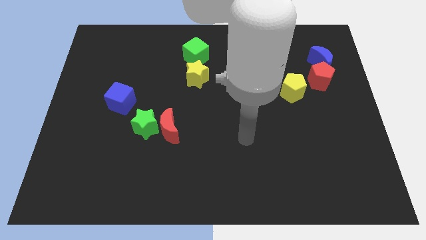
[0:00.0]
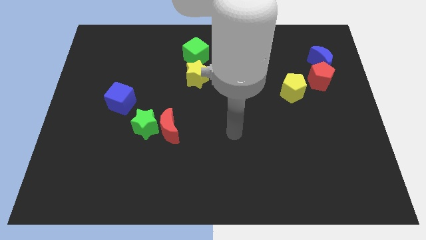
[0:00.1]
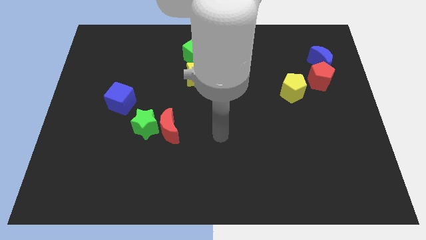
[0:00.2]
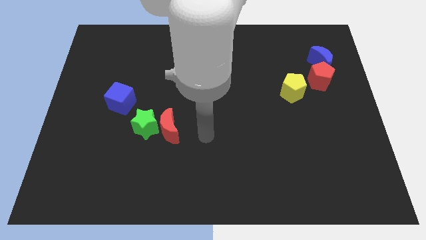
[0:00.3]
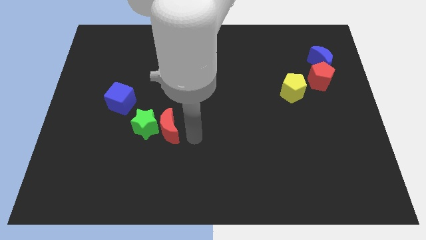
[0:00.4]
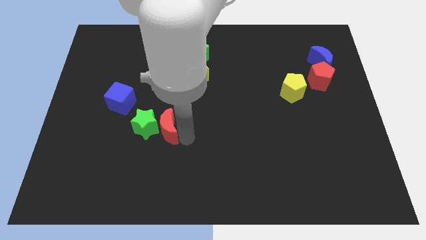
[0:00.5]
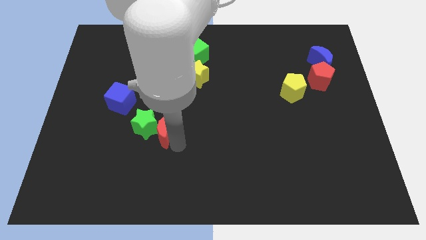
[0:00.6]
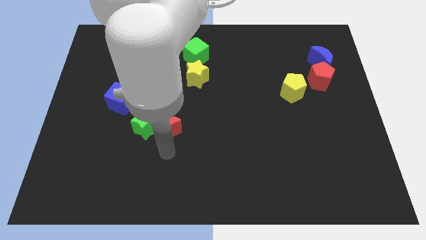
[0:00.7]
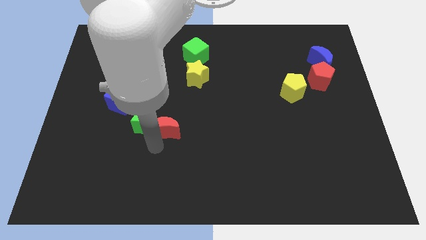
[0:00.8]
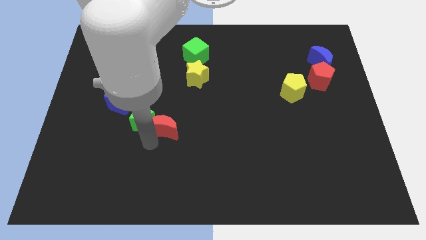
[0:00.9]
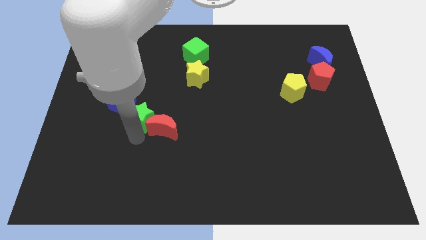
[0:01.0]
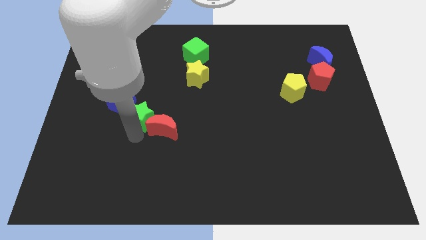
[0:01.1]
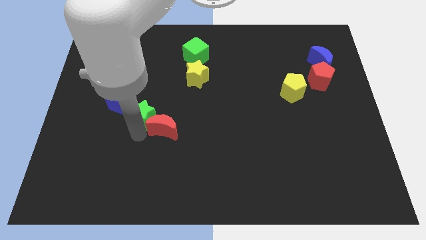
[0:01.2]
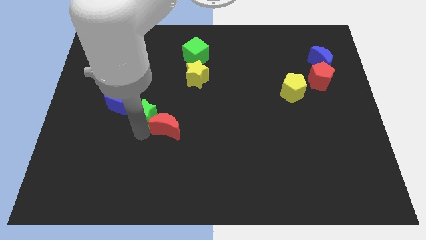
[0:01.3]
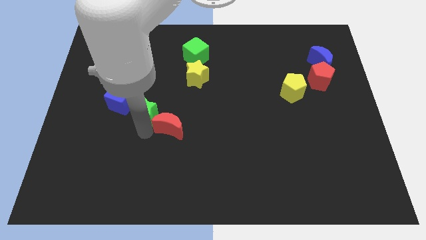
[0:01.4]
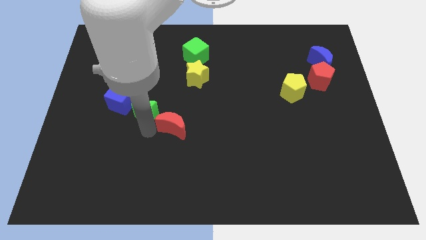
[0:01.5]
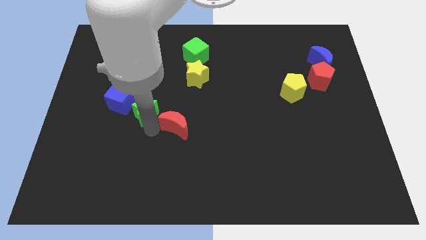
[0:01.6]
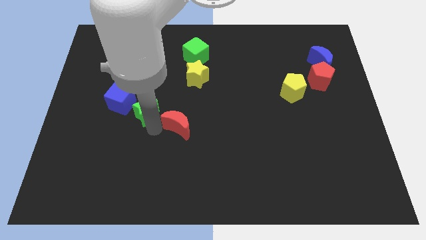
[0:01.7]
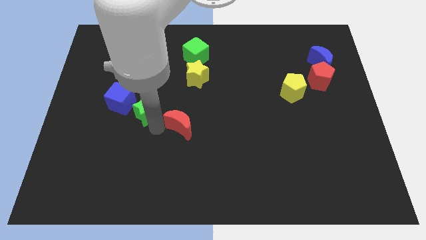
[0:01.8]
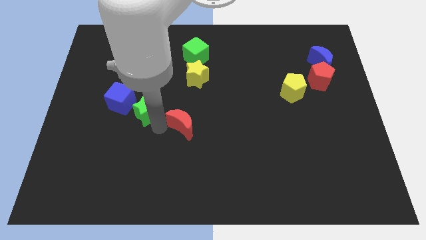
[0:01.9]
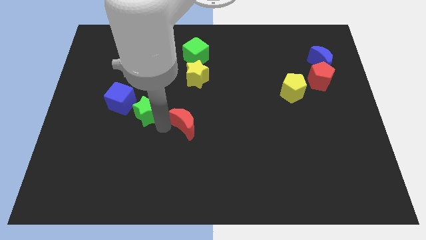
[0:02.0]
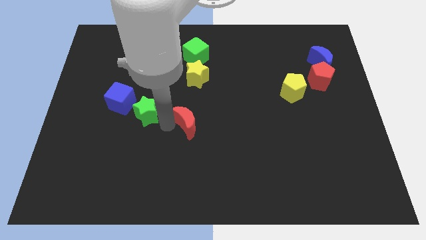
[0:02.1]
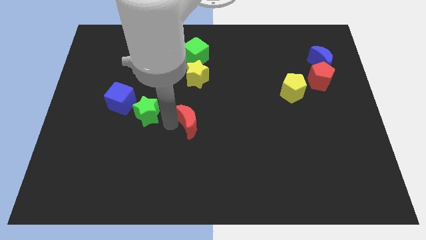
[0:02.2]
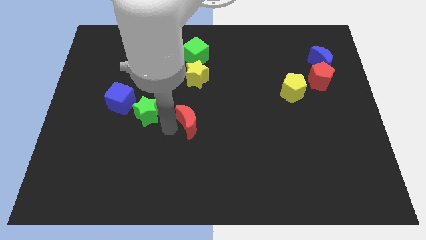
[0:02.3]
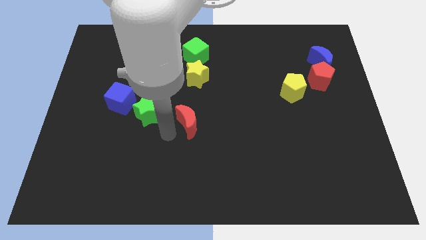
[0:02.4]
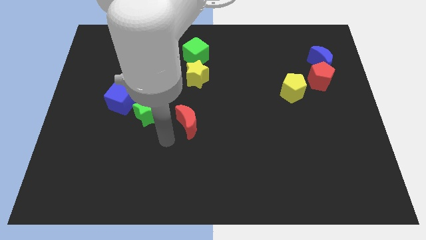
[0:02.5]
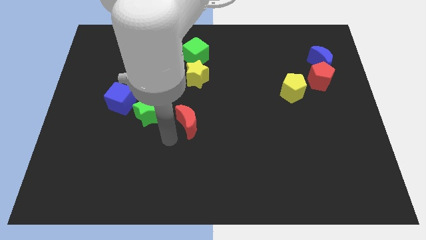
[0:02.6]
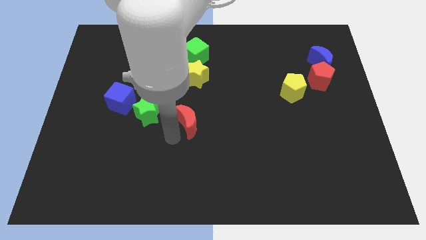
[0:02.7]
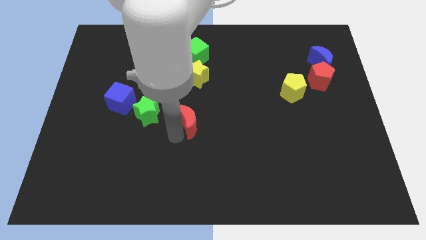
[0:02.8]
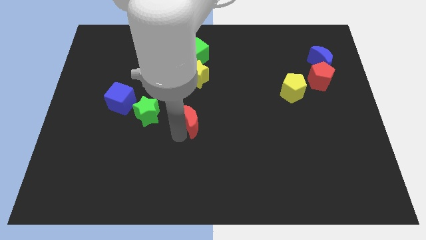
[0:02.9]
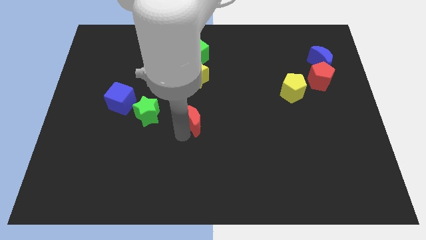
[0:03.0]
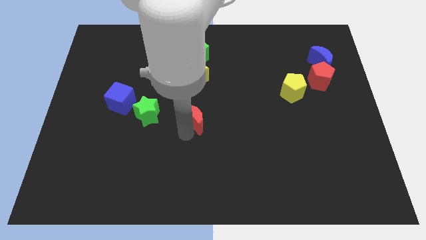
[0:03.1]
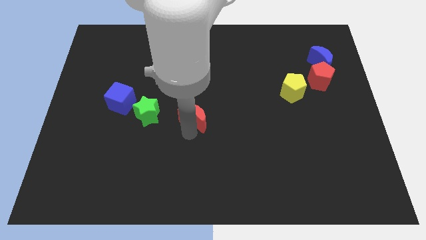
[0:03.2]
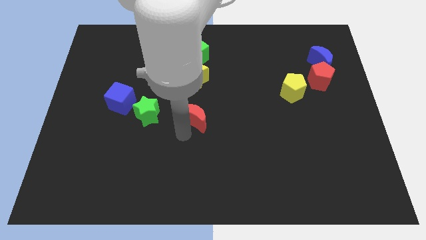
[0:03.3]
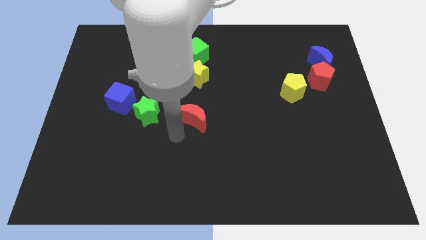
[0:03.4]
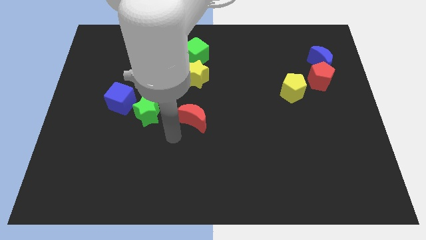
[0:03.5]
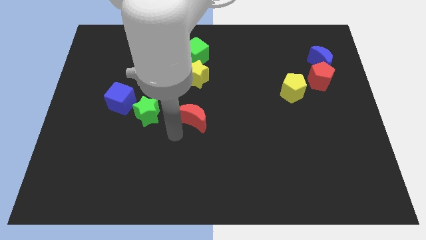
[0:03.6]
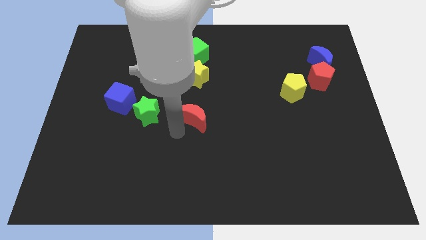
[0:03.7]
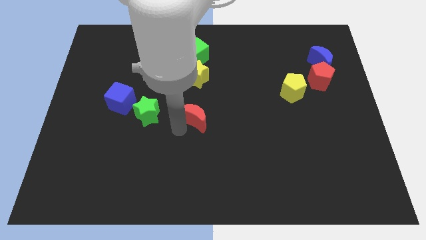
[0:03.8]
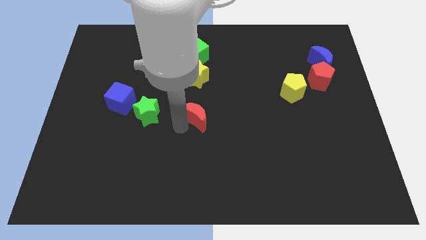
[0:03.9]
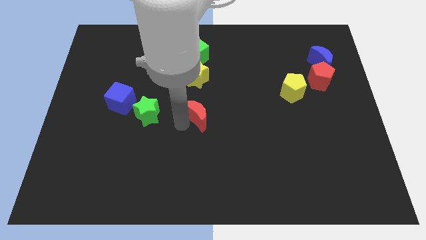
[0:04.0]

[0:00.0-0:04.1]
push the red moon a bit upwards and to the right

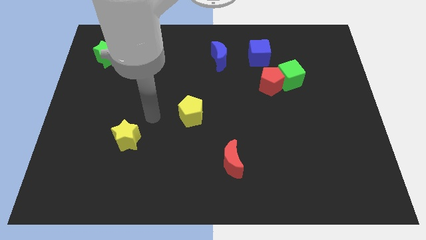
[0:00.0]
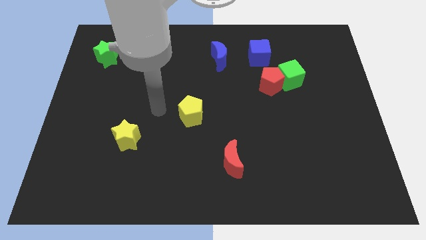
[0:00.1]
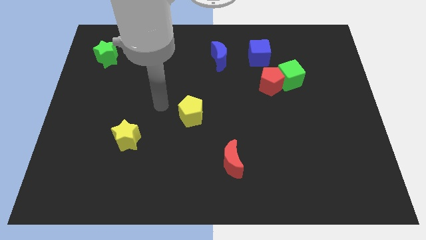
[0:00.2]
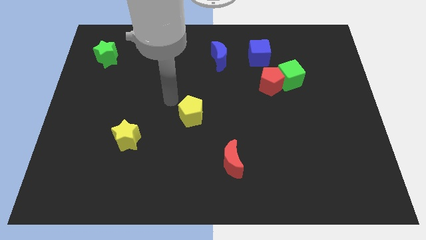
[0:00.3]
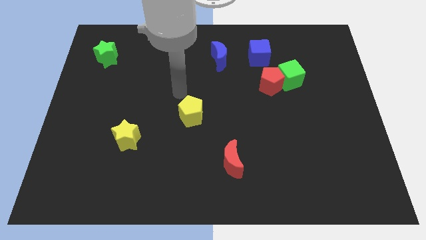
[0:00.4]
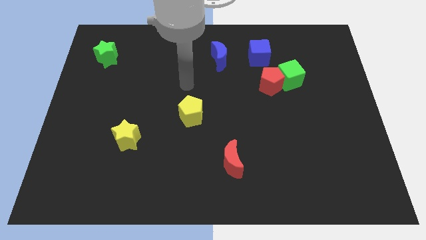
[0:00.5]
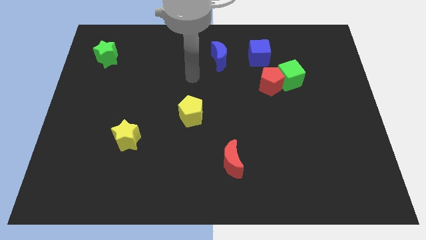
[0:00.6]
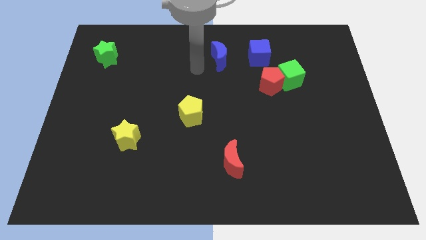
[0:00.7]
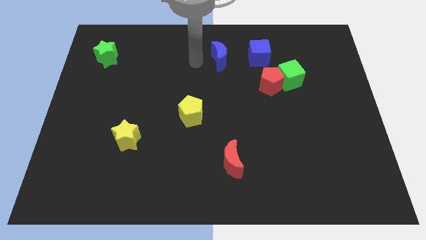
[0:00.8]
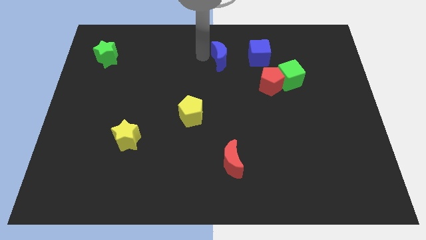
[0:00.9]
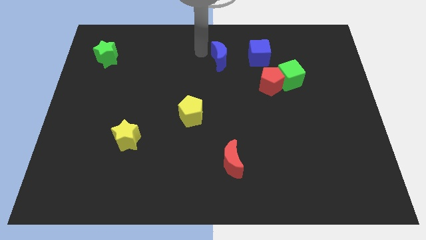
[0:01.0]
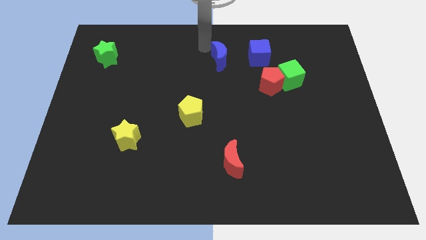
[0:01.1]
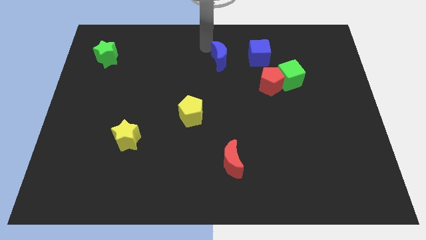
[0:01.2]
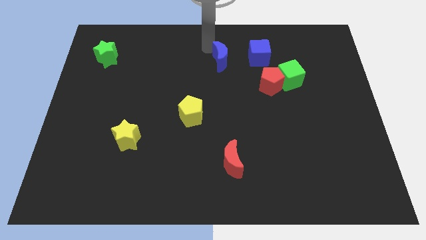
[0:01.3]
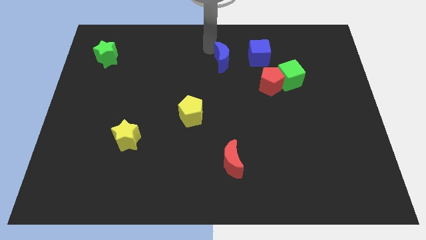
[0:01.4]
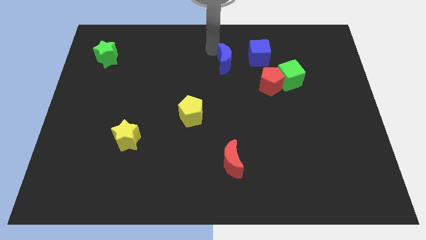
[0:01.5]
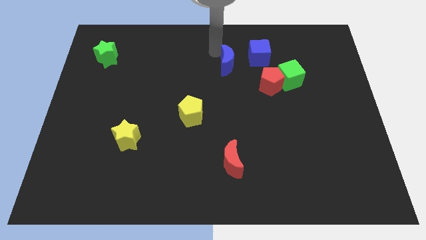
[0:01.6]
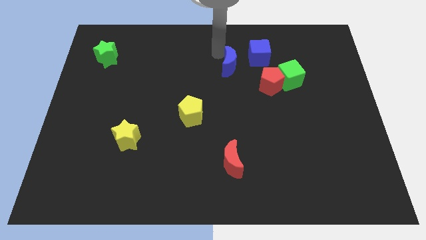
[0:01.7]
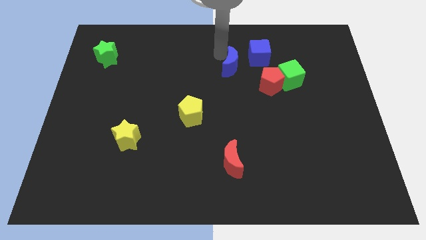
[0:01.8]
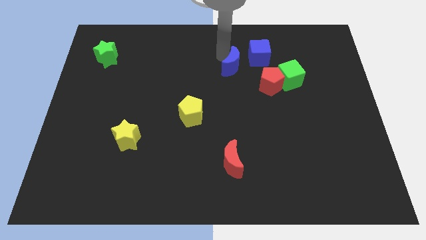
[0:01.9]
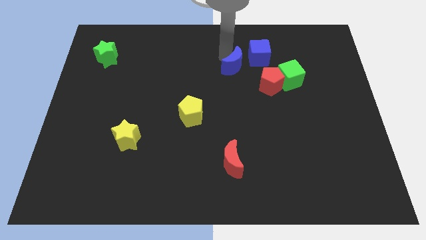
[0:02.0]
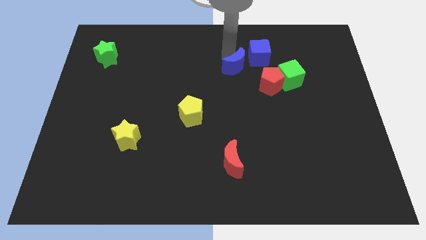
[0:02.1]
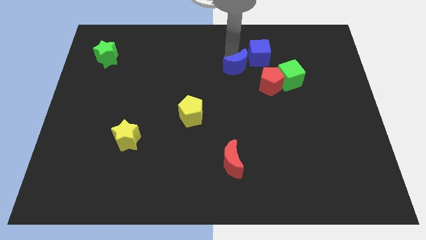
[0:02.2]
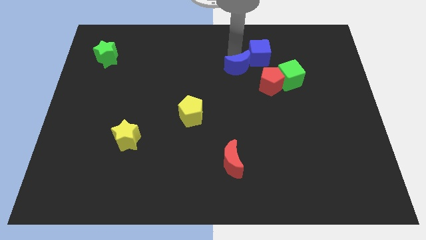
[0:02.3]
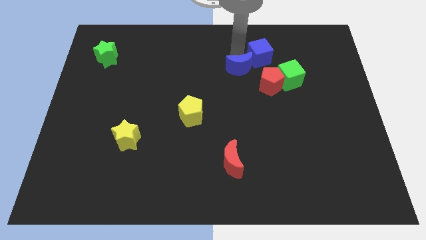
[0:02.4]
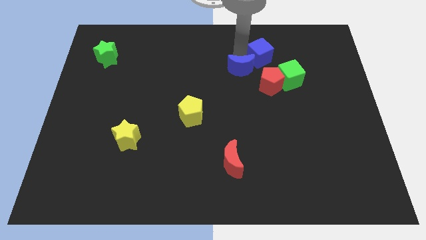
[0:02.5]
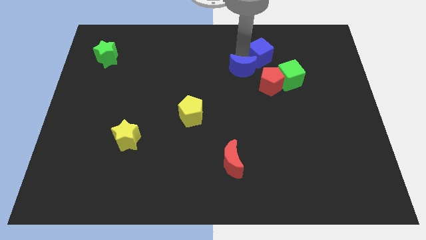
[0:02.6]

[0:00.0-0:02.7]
slightly move the blue moon downwards and to the right

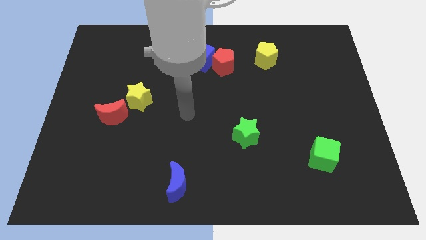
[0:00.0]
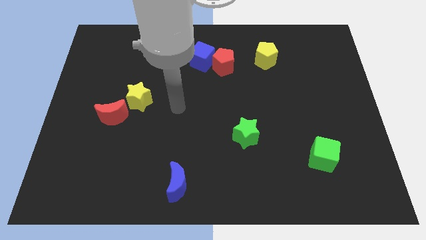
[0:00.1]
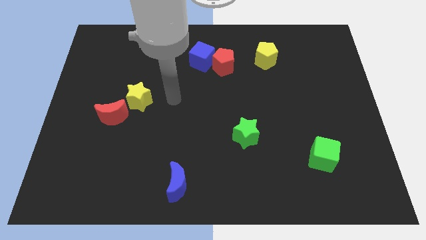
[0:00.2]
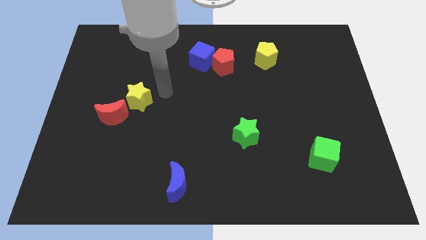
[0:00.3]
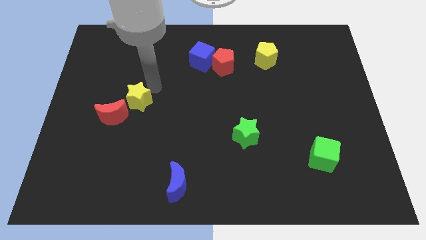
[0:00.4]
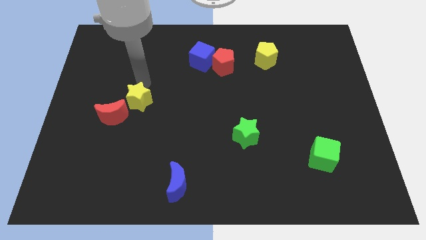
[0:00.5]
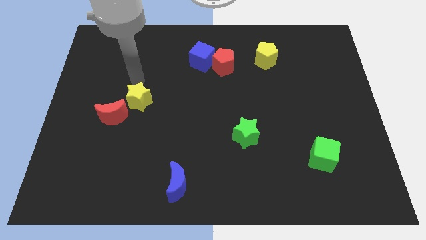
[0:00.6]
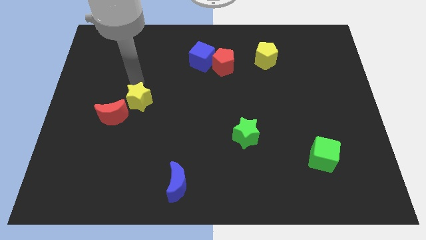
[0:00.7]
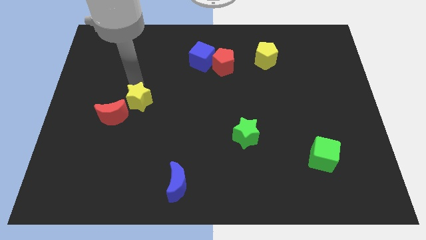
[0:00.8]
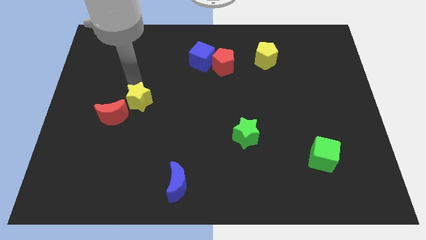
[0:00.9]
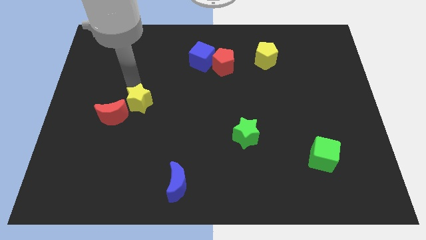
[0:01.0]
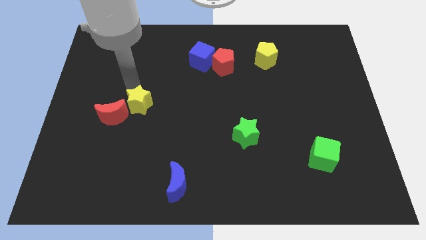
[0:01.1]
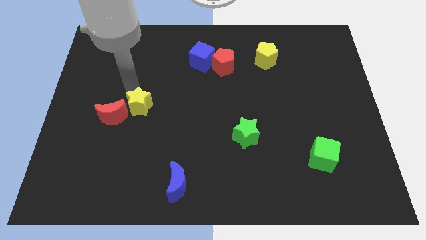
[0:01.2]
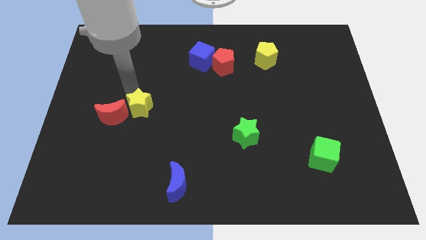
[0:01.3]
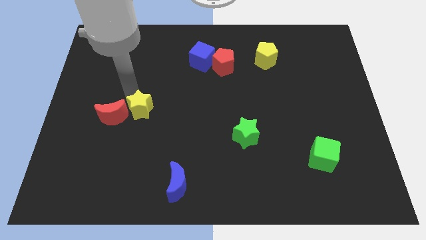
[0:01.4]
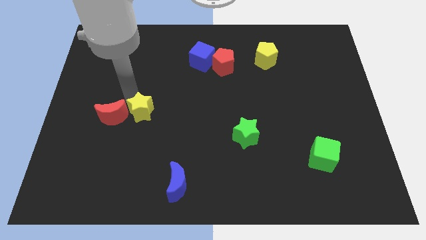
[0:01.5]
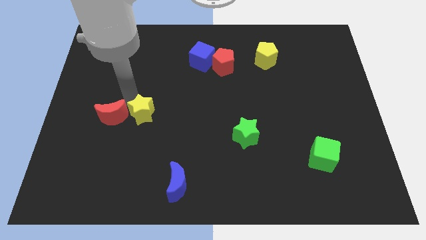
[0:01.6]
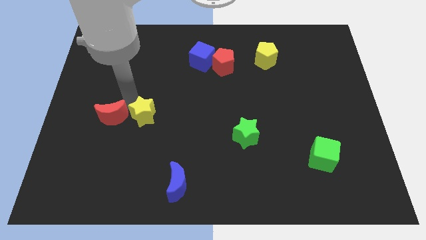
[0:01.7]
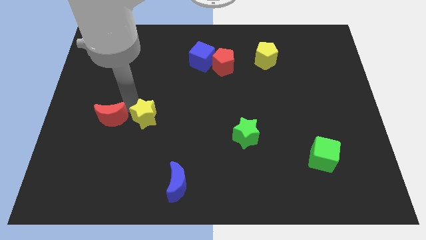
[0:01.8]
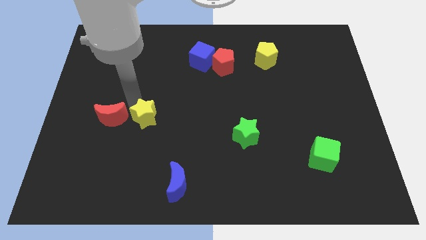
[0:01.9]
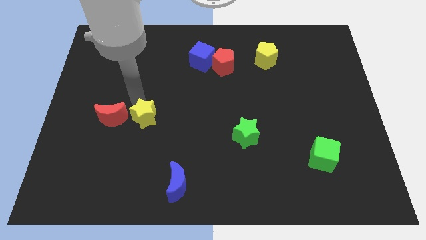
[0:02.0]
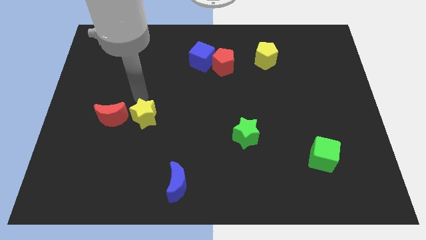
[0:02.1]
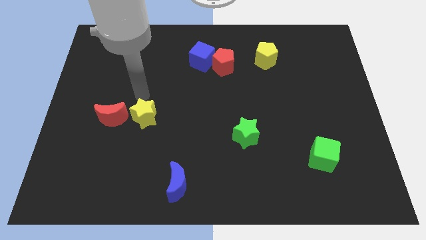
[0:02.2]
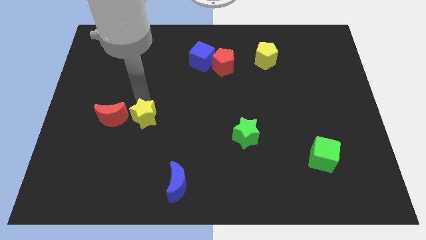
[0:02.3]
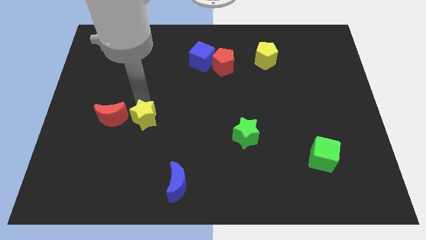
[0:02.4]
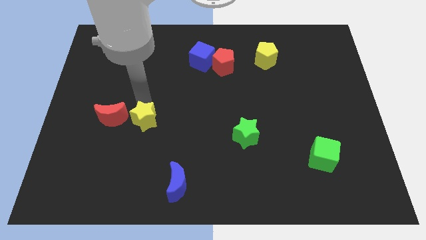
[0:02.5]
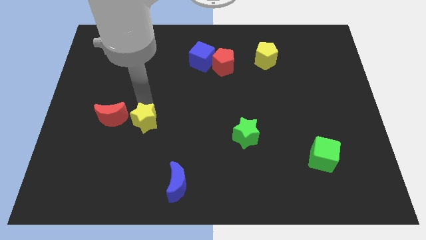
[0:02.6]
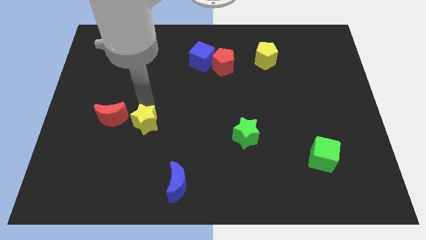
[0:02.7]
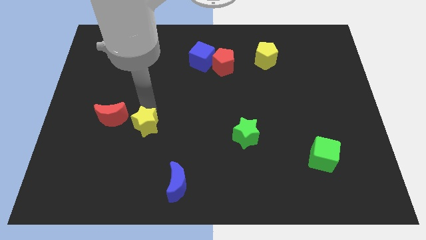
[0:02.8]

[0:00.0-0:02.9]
push the yellow star a bit downwards
